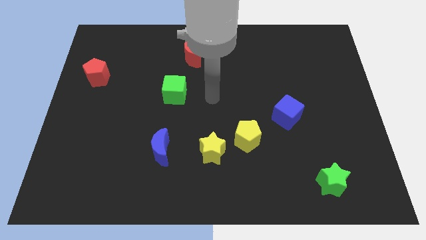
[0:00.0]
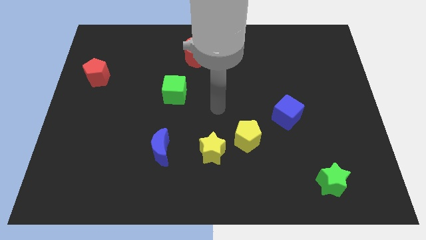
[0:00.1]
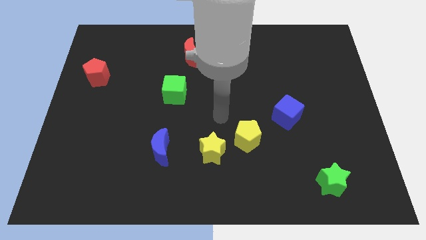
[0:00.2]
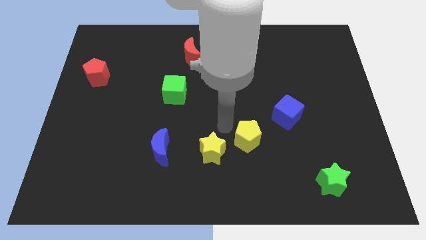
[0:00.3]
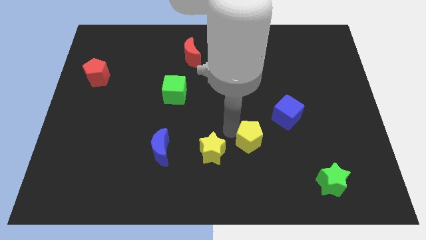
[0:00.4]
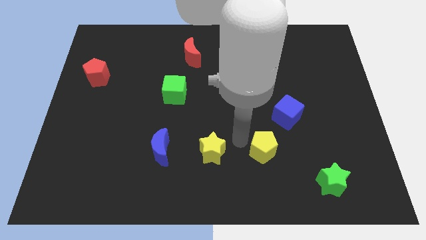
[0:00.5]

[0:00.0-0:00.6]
move the yellow star away from the yellow pentagon

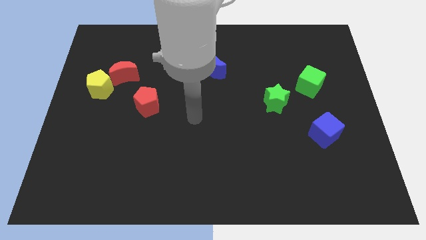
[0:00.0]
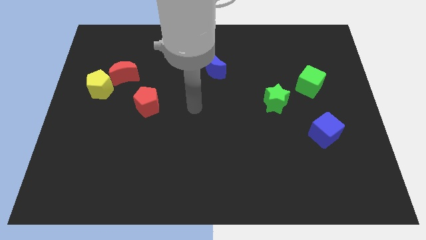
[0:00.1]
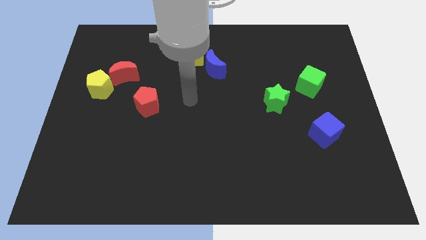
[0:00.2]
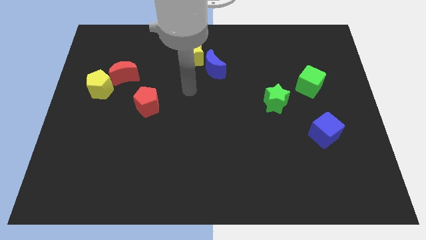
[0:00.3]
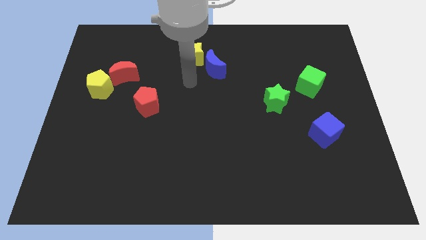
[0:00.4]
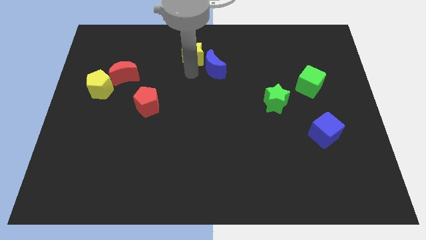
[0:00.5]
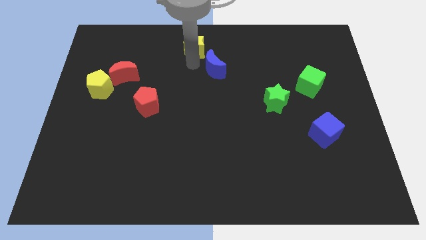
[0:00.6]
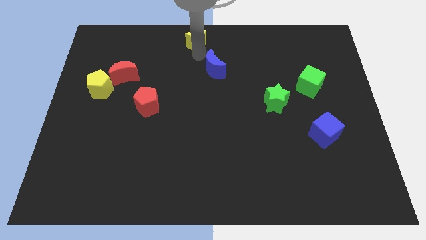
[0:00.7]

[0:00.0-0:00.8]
move the blue moon away from the yellow star

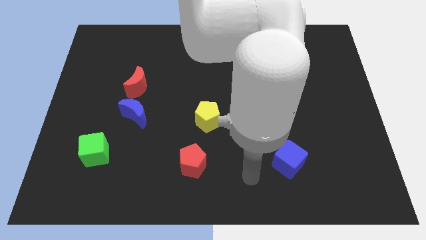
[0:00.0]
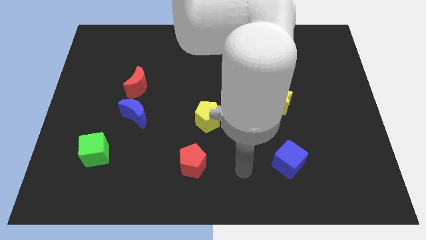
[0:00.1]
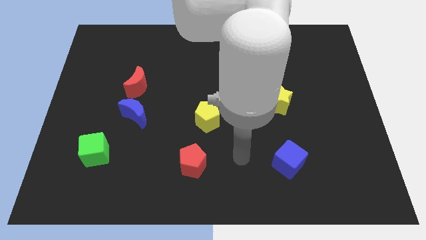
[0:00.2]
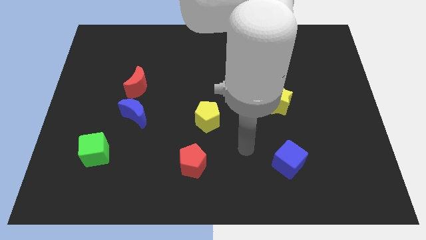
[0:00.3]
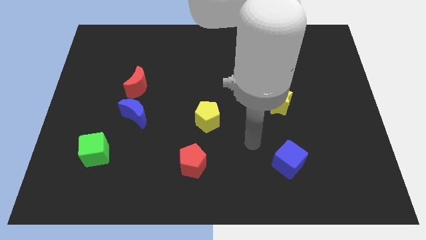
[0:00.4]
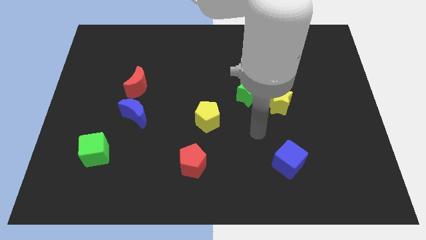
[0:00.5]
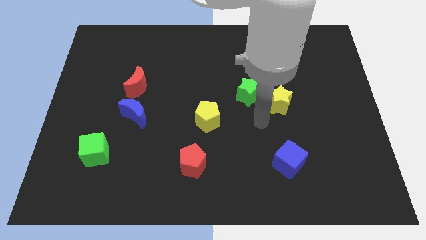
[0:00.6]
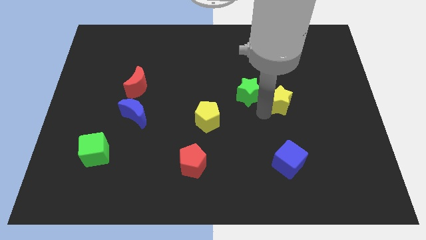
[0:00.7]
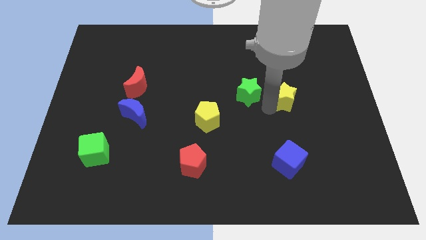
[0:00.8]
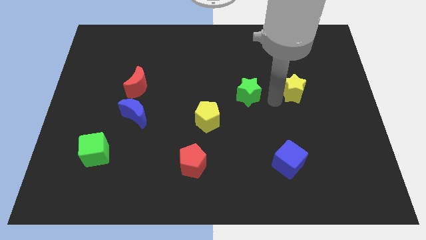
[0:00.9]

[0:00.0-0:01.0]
pull the green star apart from the yellow star

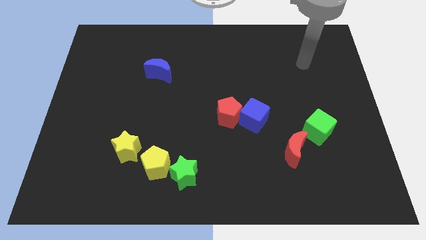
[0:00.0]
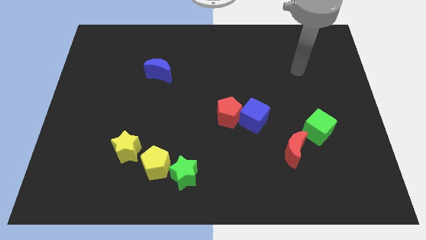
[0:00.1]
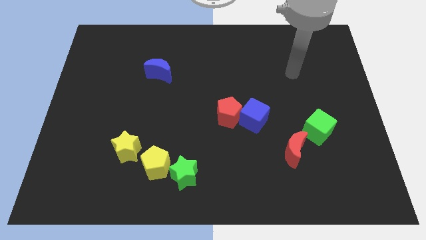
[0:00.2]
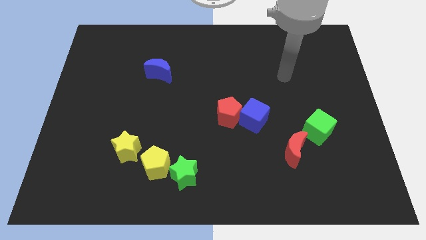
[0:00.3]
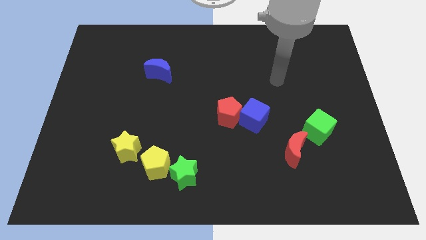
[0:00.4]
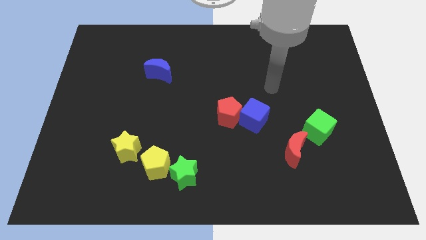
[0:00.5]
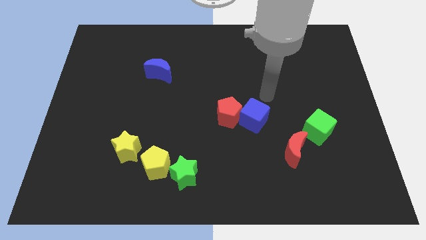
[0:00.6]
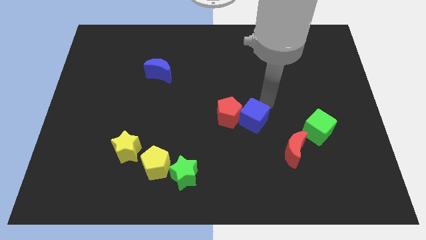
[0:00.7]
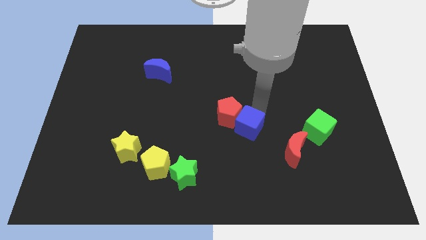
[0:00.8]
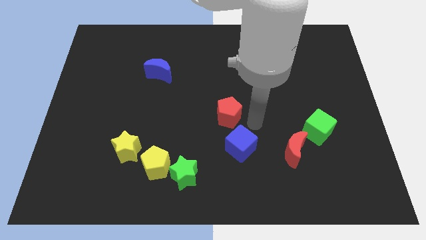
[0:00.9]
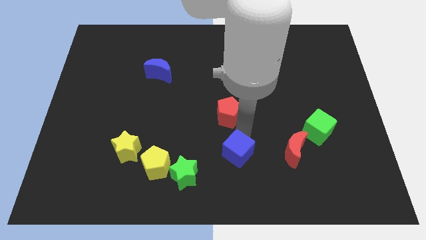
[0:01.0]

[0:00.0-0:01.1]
separate the red pentagon from the blue cube

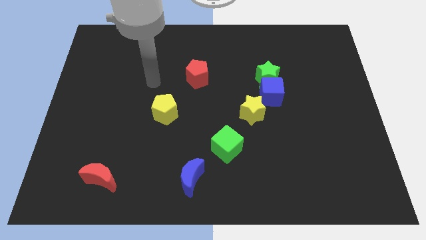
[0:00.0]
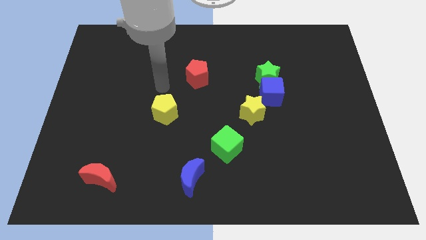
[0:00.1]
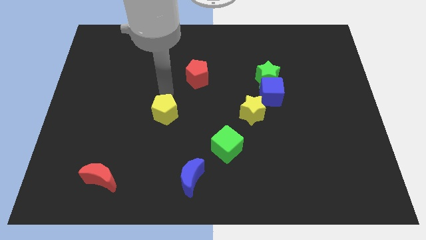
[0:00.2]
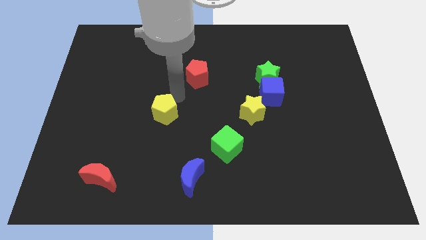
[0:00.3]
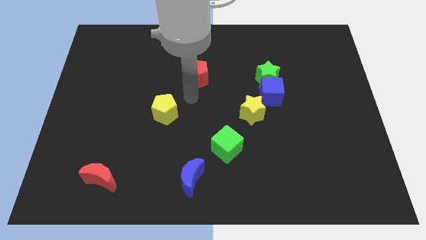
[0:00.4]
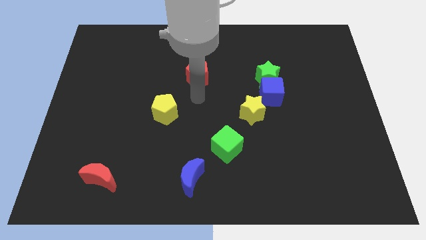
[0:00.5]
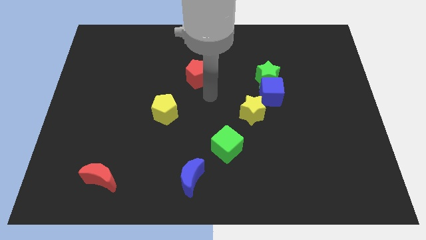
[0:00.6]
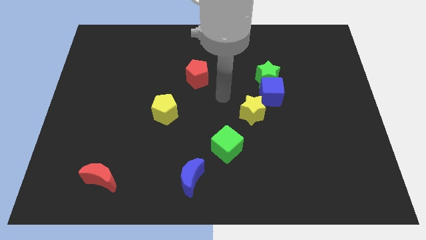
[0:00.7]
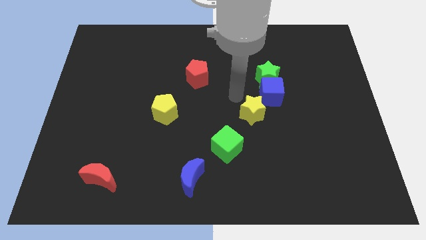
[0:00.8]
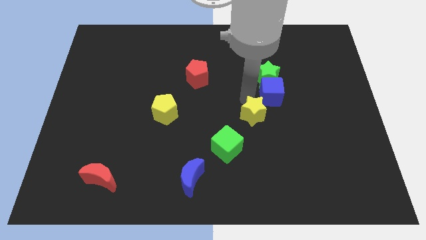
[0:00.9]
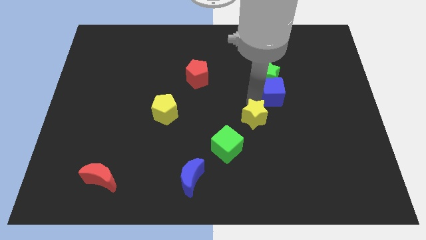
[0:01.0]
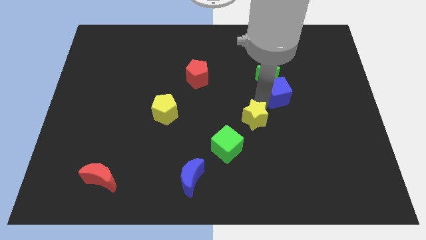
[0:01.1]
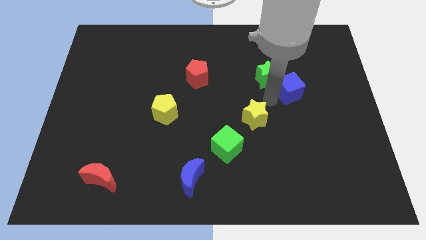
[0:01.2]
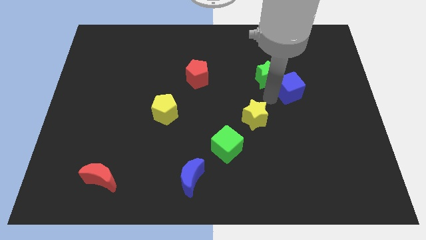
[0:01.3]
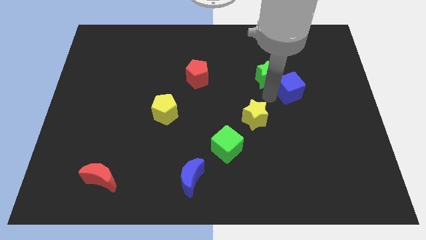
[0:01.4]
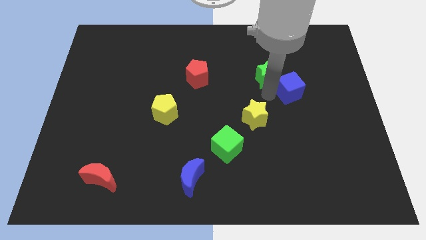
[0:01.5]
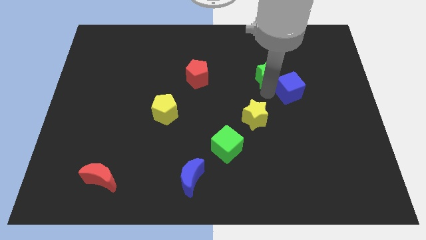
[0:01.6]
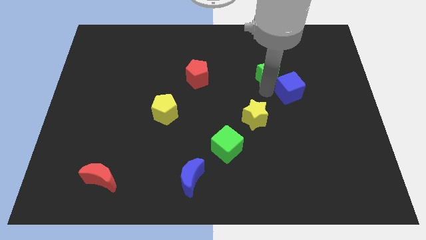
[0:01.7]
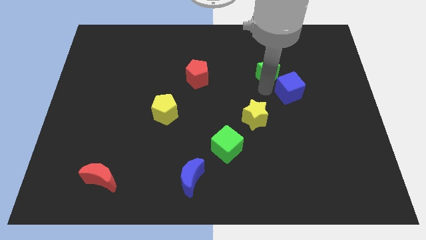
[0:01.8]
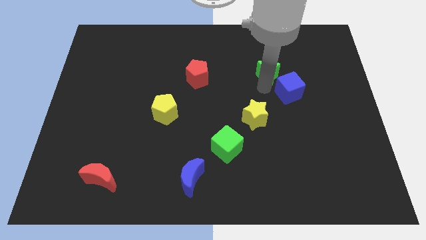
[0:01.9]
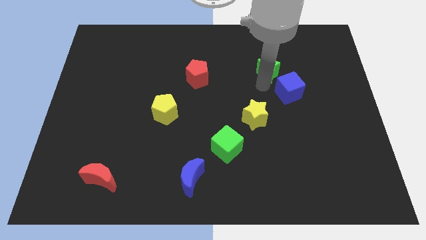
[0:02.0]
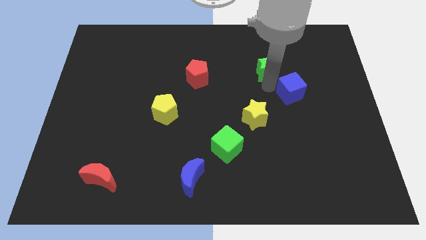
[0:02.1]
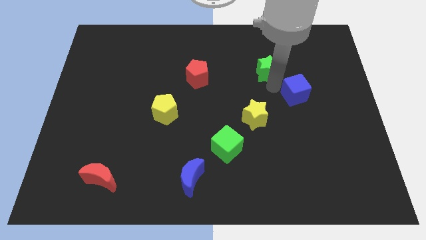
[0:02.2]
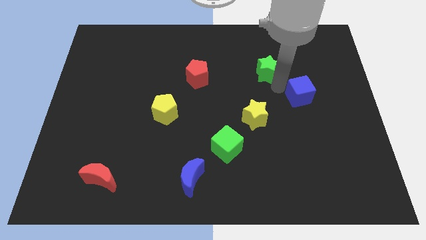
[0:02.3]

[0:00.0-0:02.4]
move the green star away from the blue cube

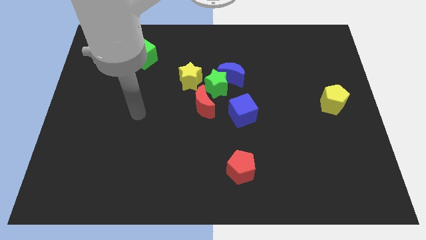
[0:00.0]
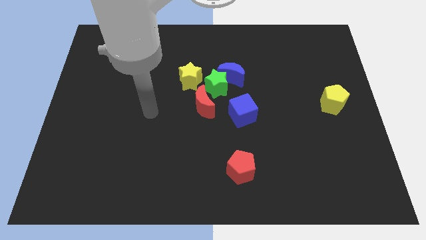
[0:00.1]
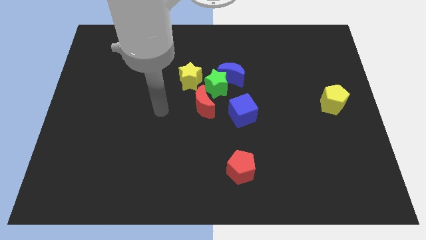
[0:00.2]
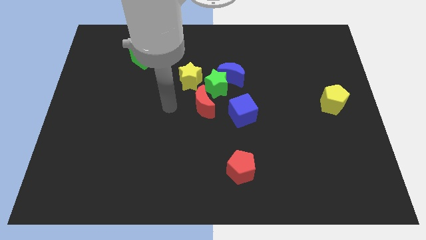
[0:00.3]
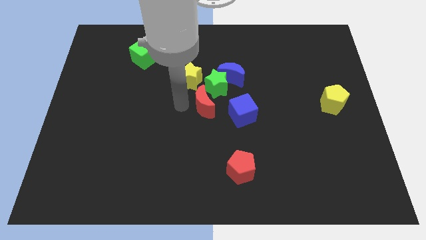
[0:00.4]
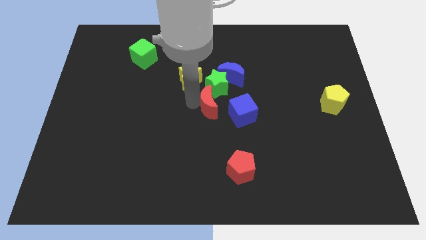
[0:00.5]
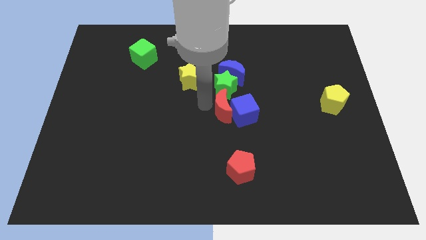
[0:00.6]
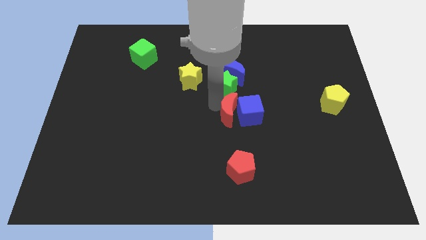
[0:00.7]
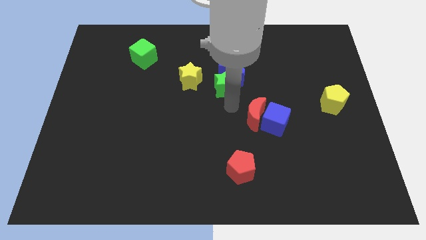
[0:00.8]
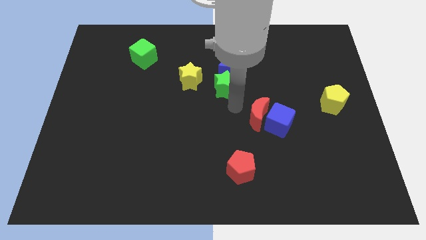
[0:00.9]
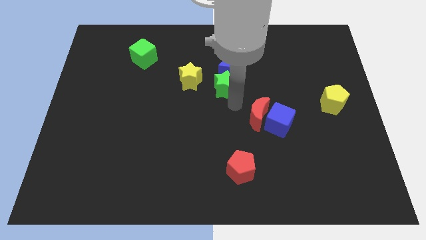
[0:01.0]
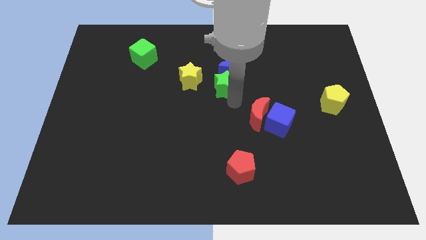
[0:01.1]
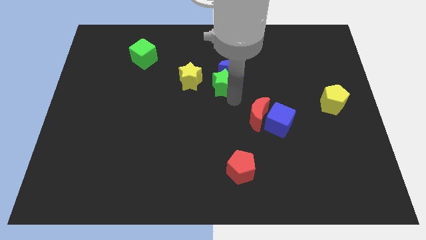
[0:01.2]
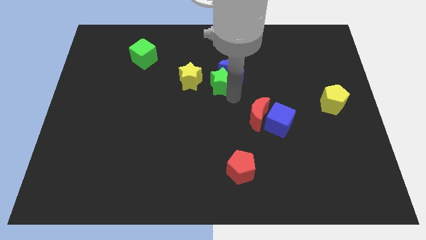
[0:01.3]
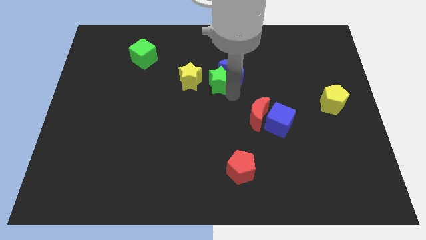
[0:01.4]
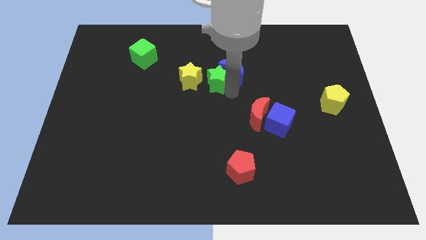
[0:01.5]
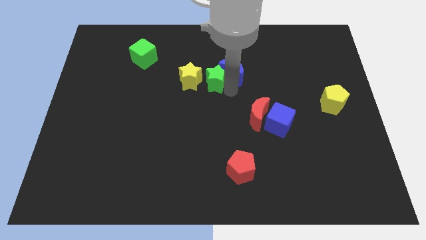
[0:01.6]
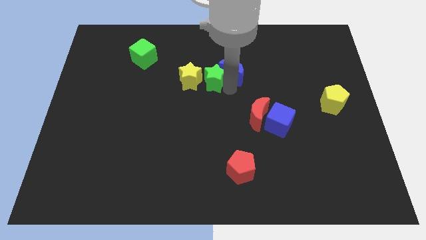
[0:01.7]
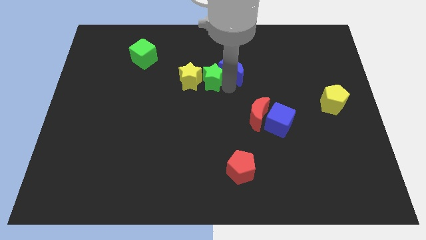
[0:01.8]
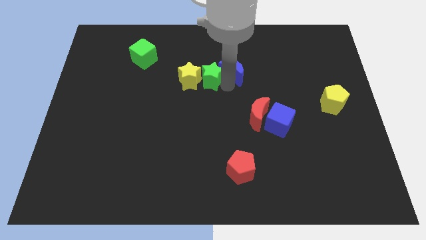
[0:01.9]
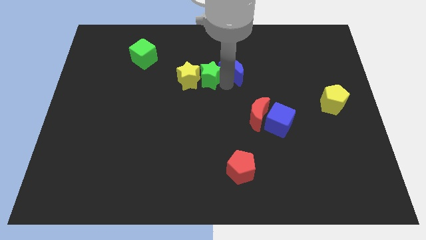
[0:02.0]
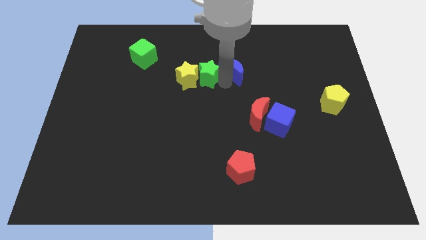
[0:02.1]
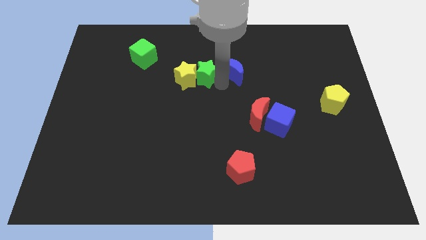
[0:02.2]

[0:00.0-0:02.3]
separate the green star from the group of blocks

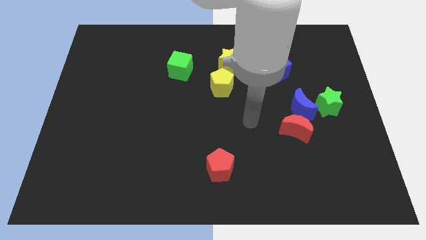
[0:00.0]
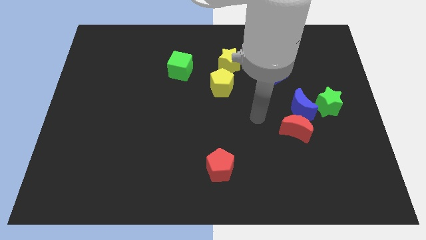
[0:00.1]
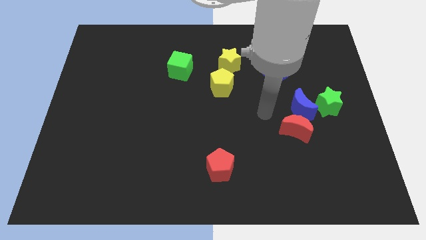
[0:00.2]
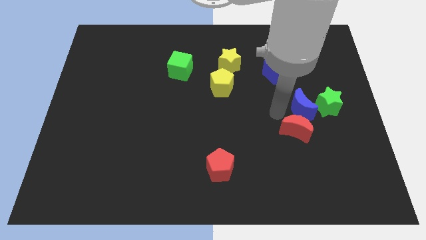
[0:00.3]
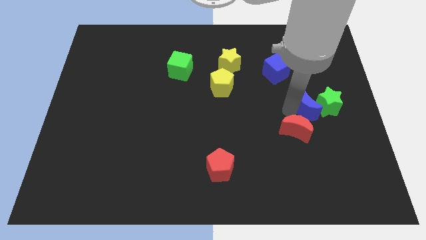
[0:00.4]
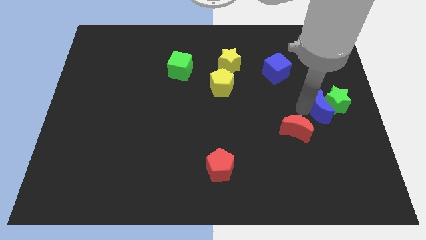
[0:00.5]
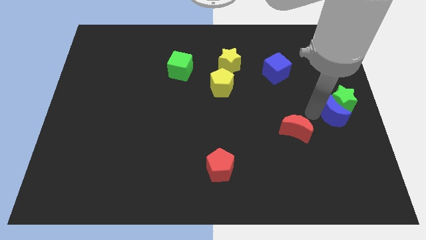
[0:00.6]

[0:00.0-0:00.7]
move the red moon away from the blue moon

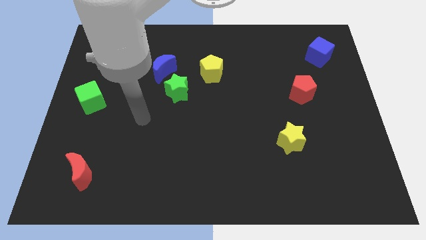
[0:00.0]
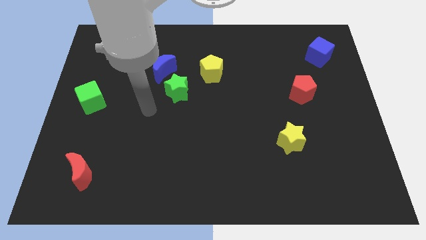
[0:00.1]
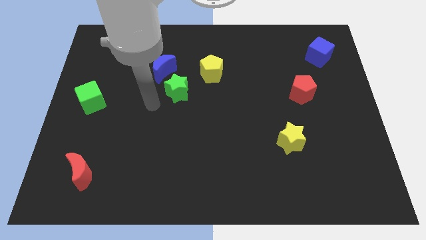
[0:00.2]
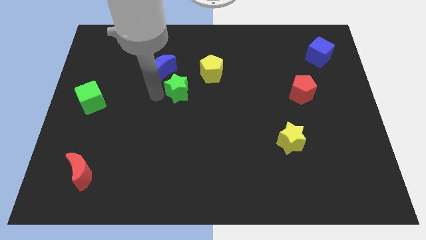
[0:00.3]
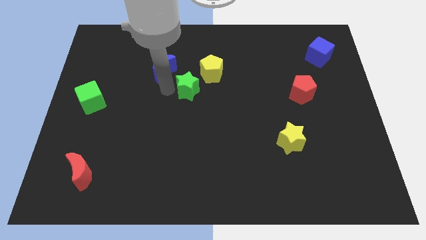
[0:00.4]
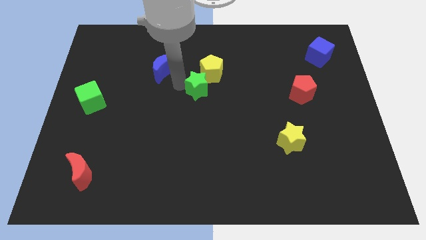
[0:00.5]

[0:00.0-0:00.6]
move the blue moon away from the green star

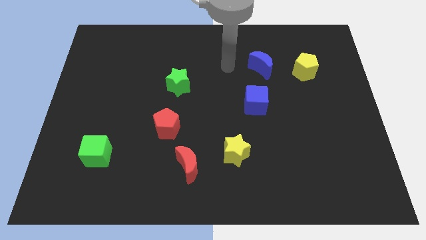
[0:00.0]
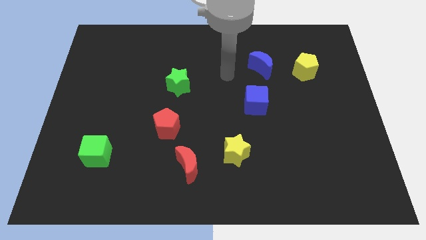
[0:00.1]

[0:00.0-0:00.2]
separate the red moon from the yellow star
